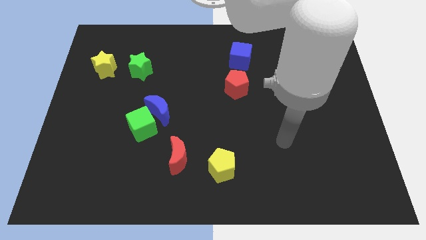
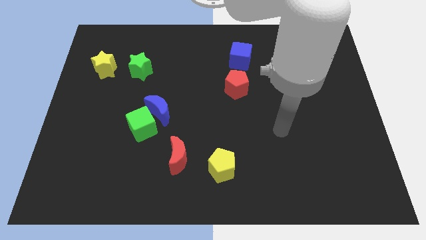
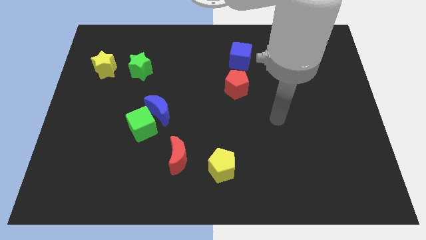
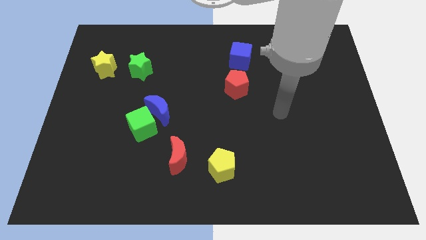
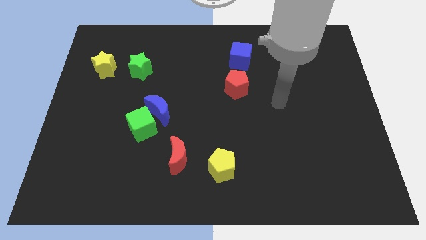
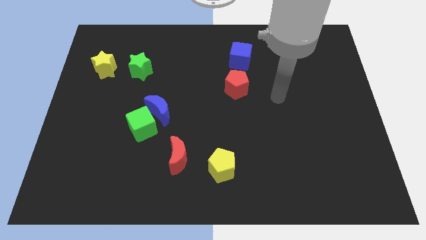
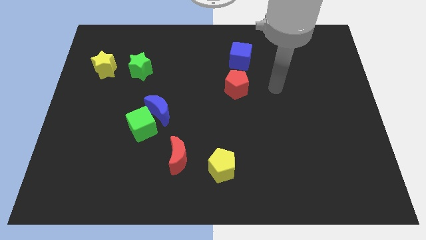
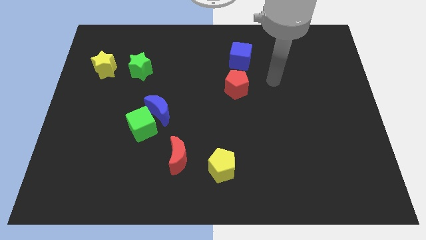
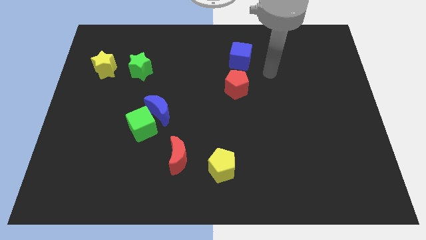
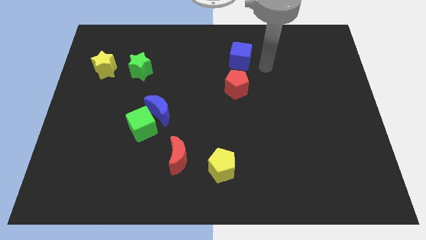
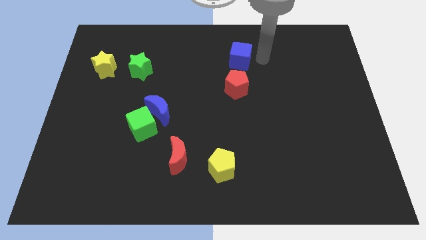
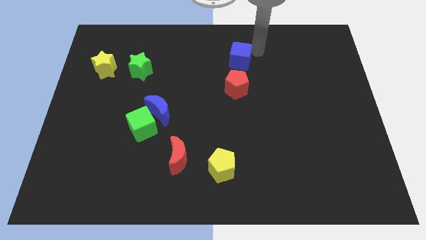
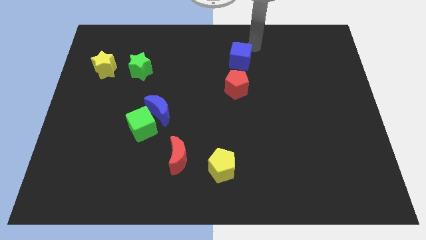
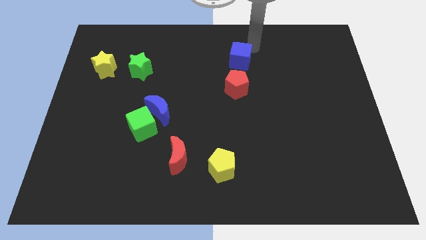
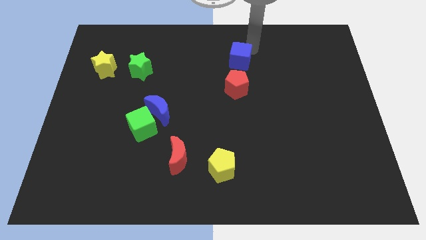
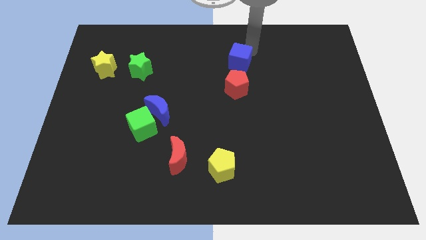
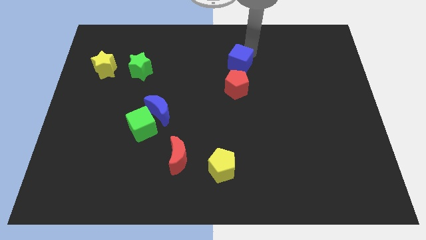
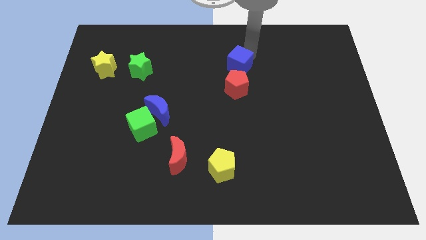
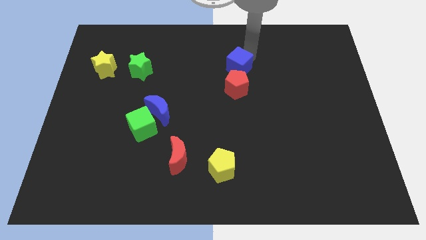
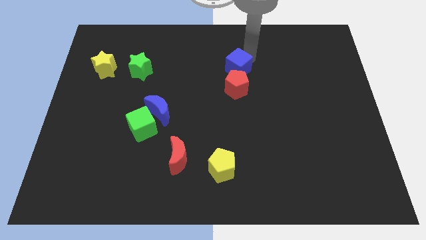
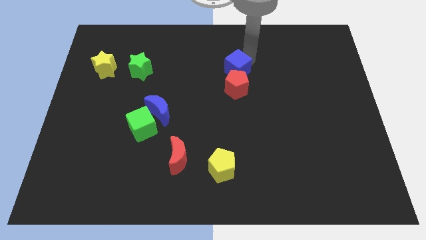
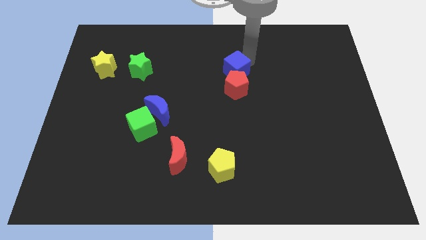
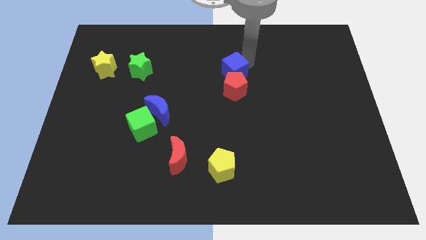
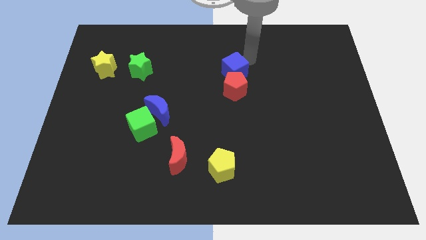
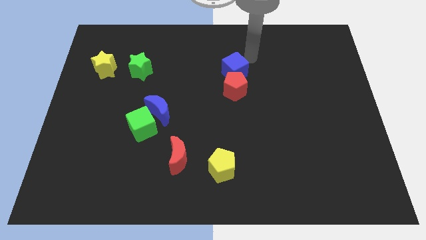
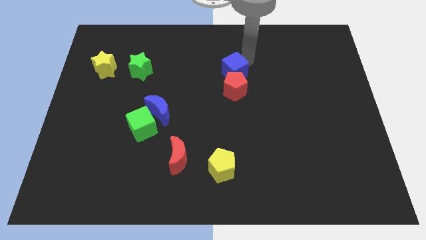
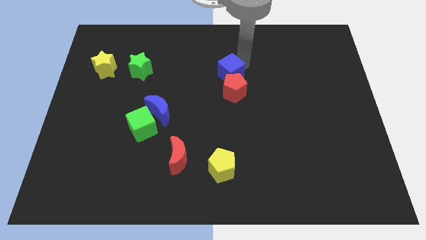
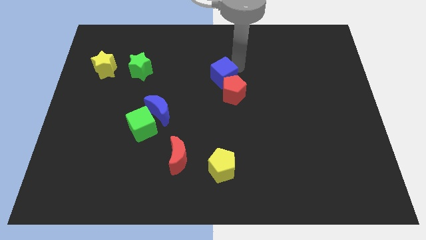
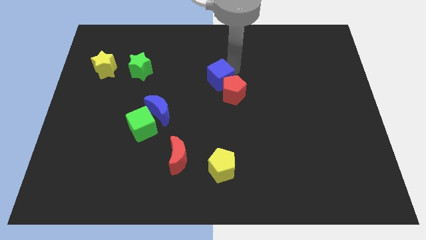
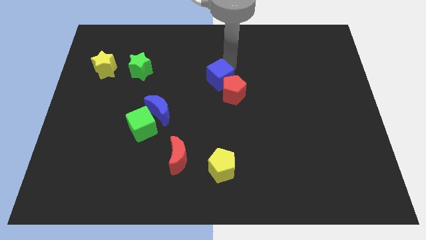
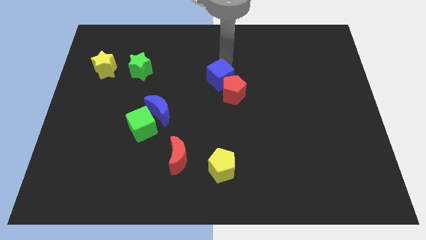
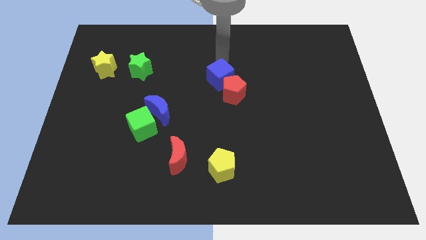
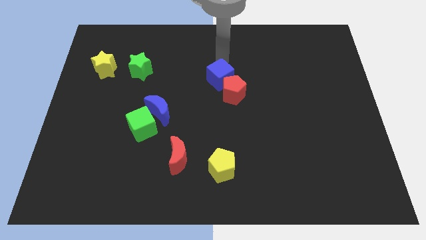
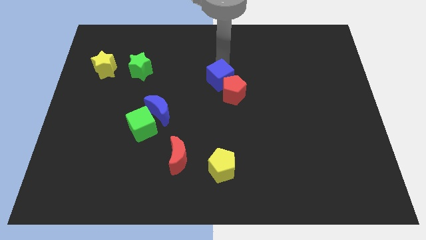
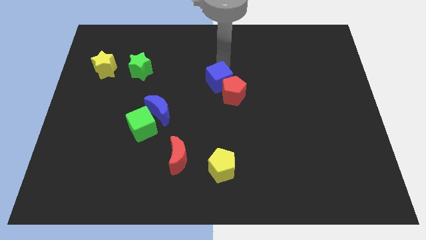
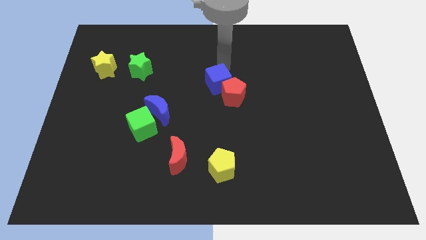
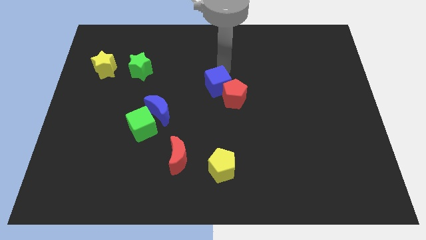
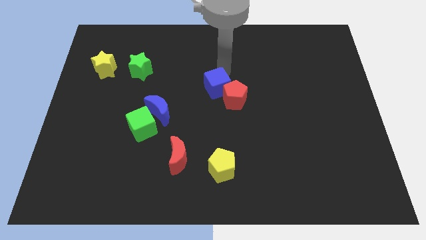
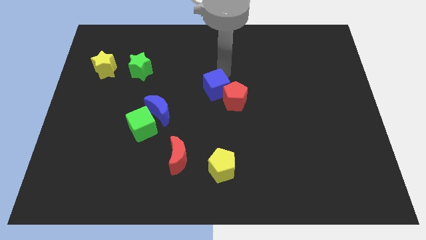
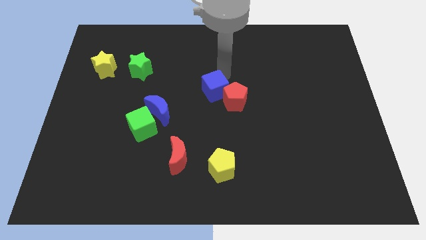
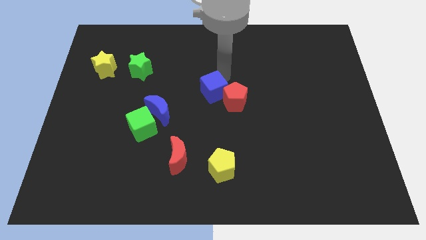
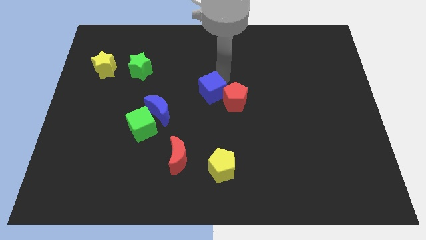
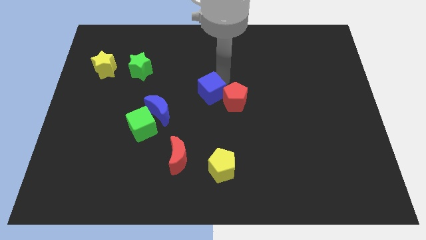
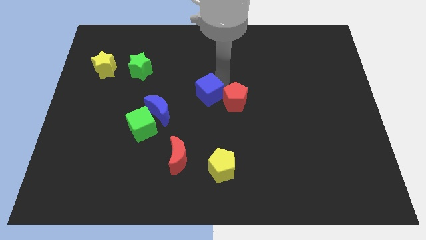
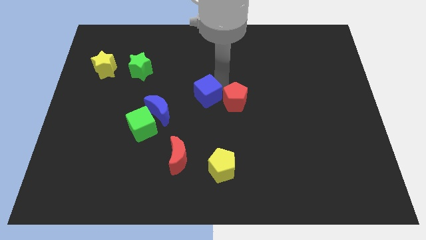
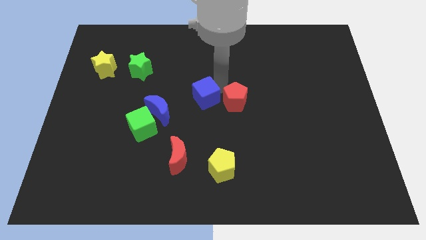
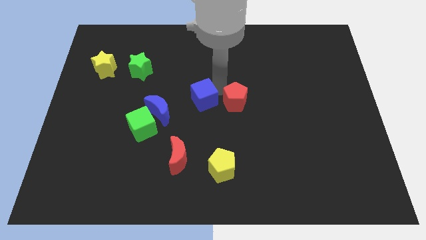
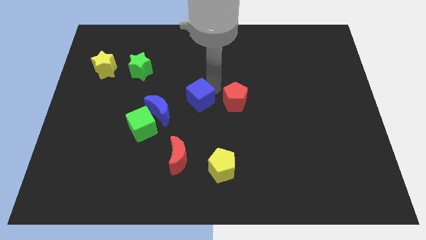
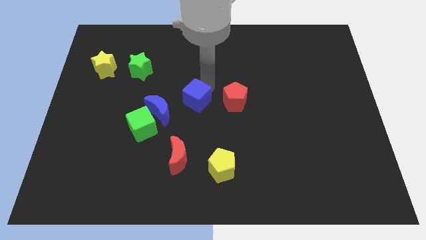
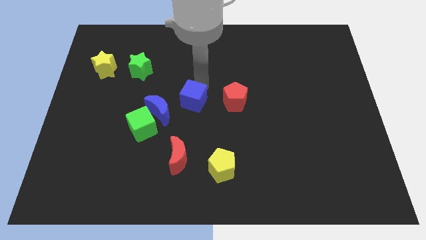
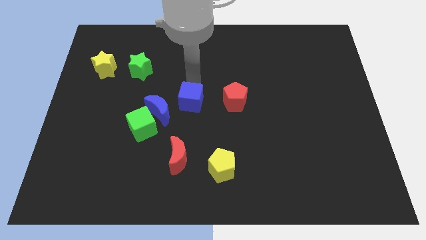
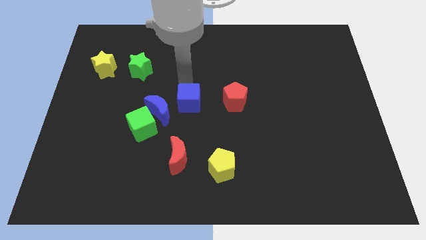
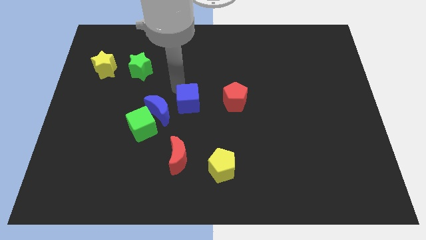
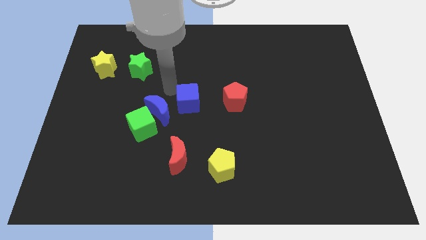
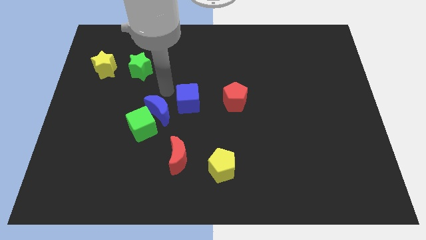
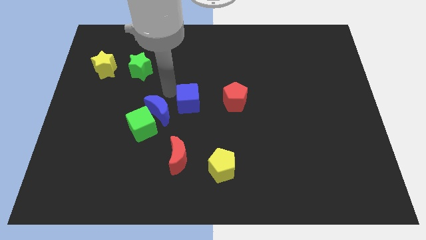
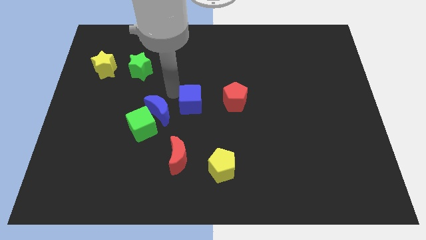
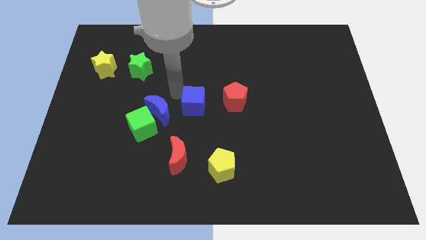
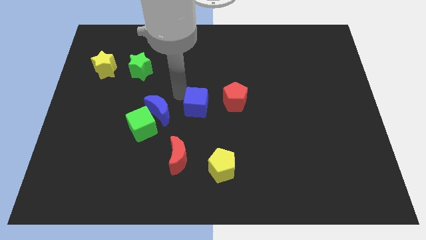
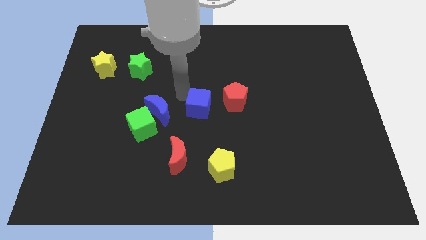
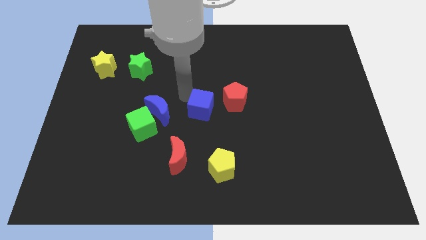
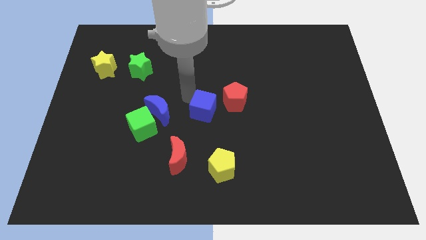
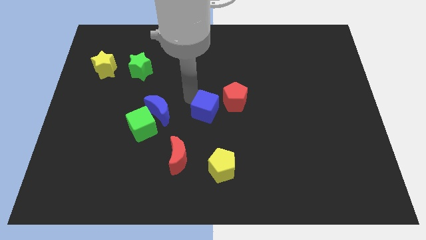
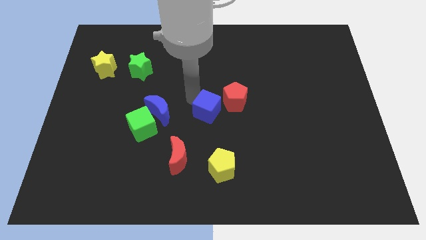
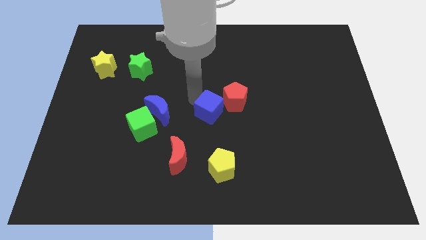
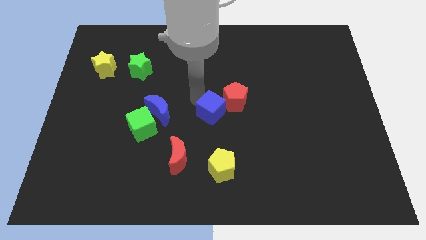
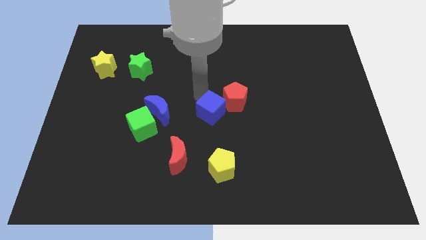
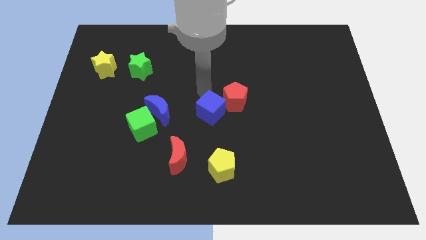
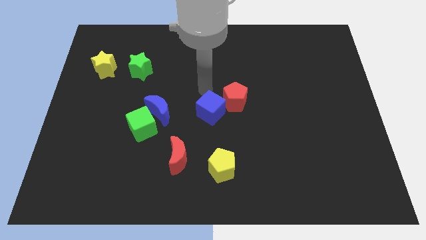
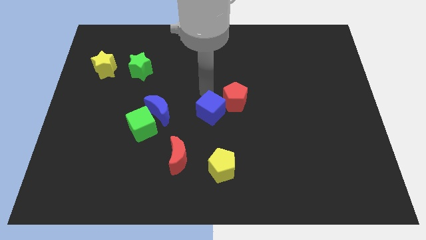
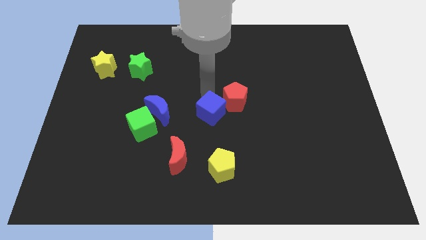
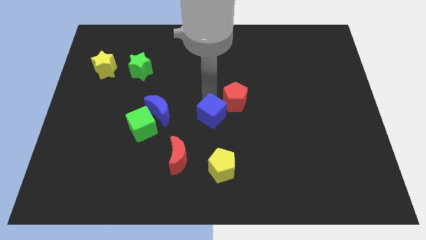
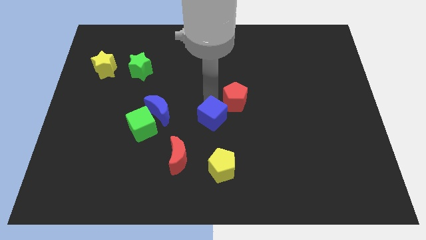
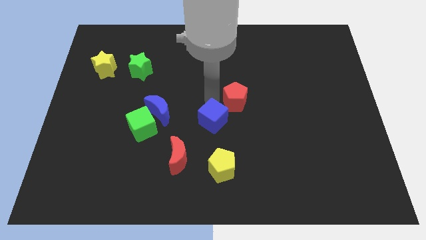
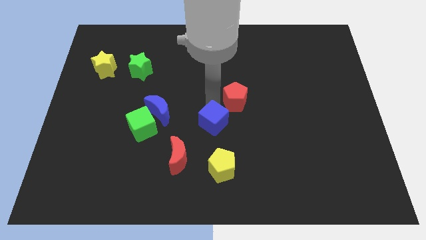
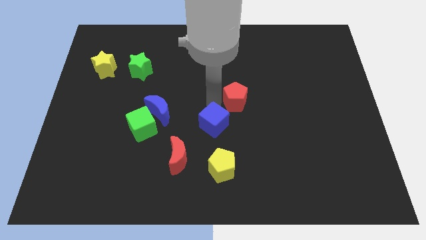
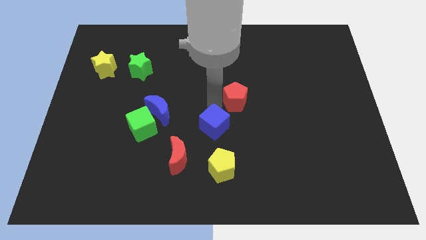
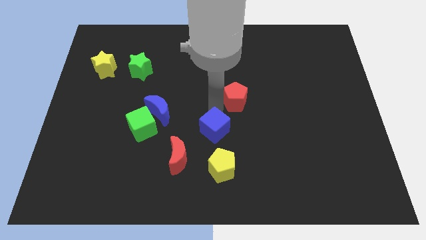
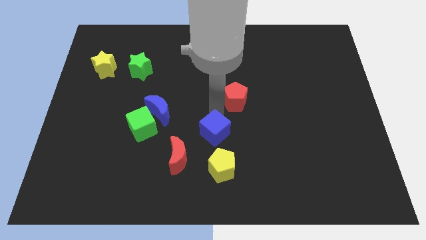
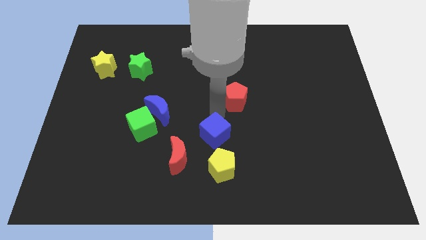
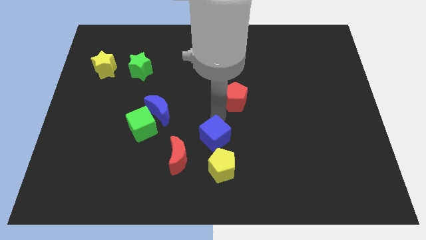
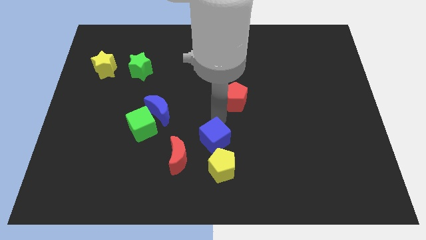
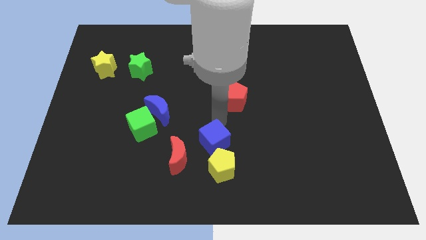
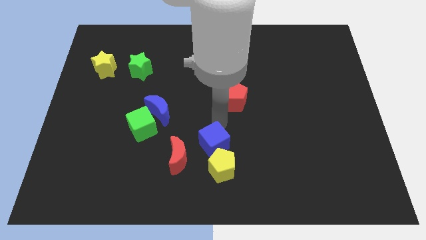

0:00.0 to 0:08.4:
put the blue cube close to the yellow pentagon
